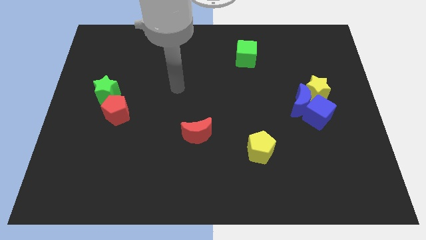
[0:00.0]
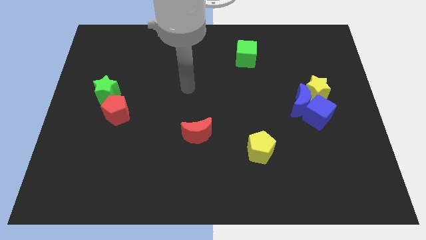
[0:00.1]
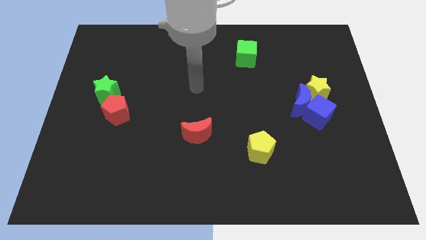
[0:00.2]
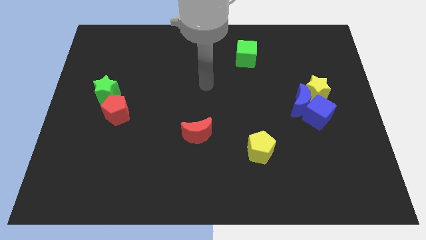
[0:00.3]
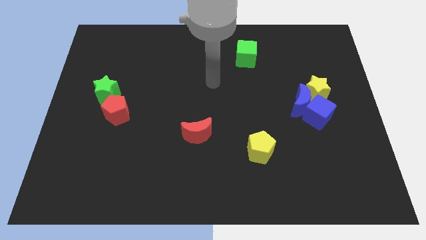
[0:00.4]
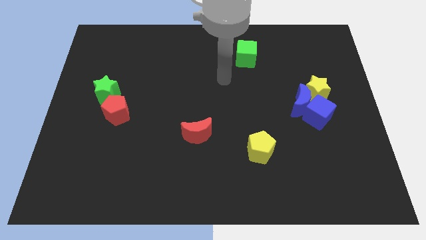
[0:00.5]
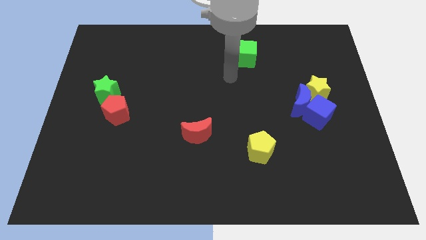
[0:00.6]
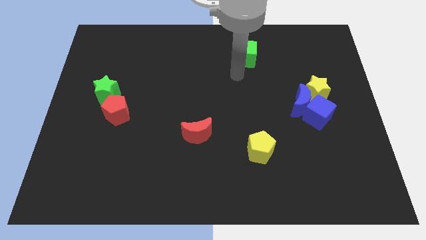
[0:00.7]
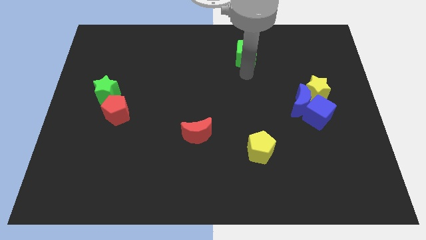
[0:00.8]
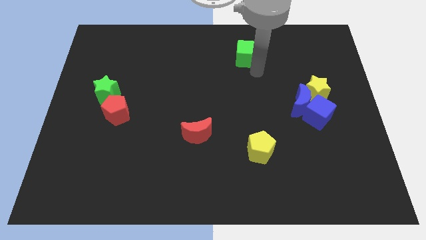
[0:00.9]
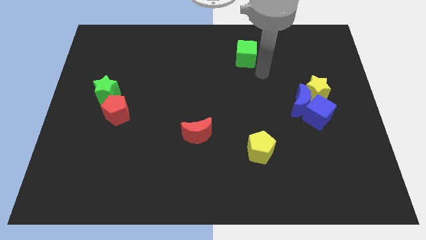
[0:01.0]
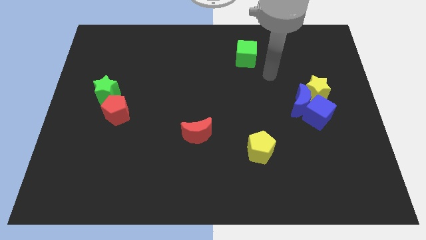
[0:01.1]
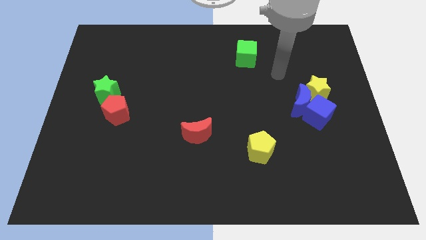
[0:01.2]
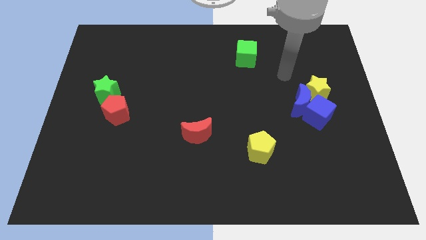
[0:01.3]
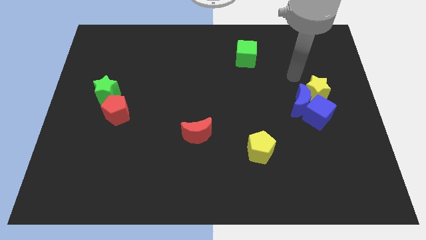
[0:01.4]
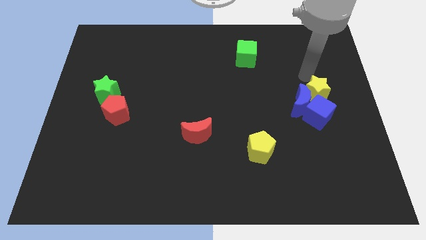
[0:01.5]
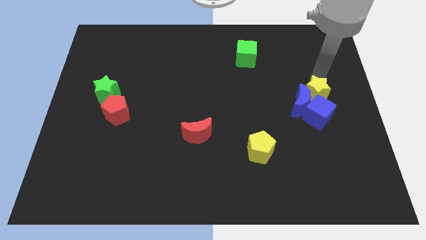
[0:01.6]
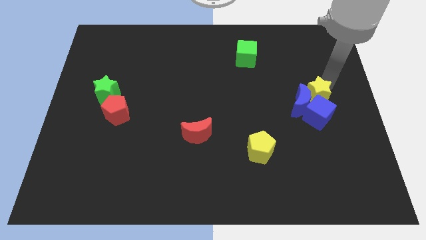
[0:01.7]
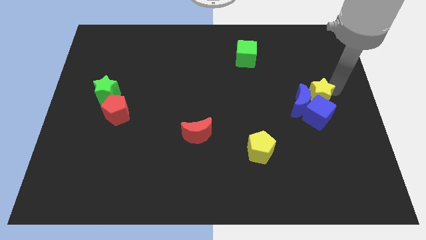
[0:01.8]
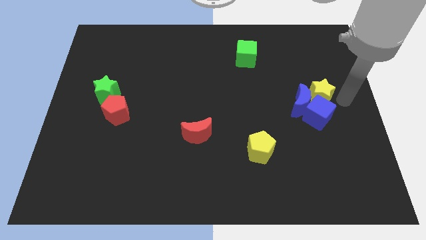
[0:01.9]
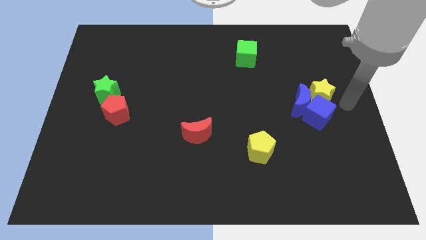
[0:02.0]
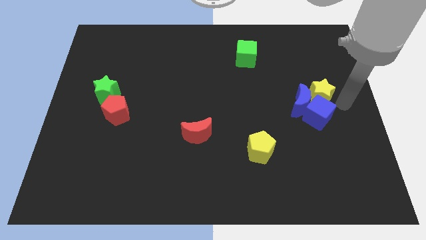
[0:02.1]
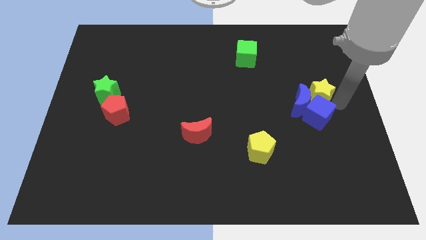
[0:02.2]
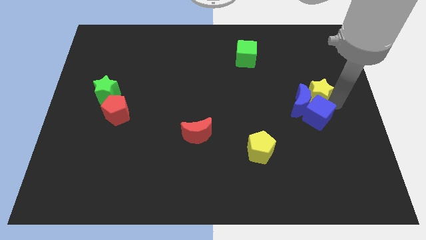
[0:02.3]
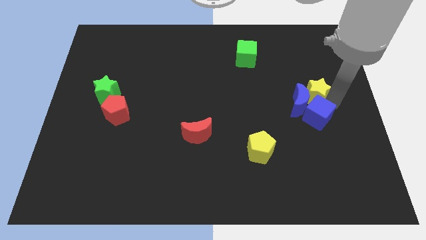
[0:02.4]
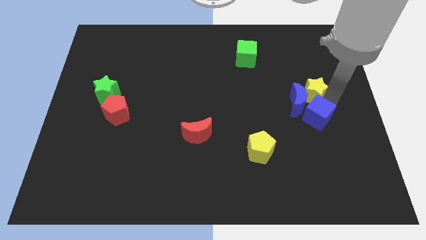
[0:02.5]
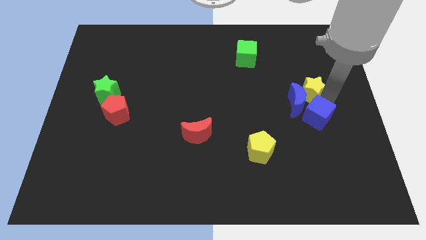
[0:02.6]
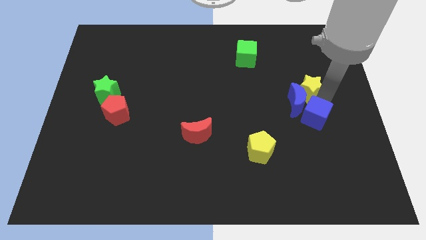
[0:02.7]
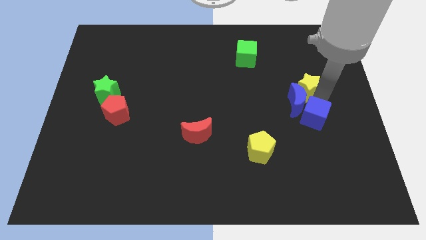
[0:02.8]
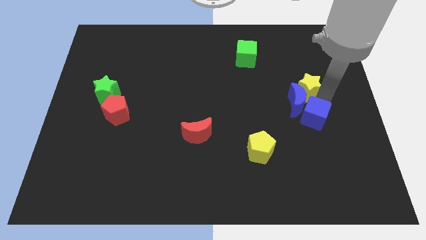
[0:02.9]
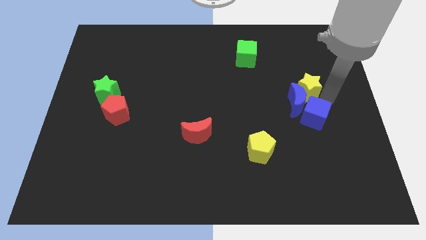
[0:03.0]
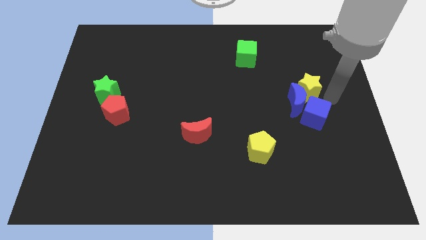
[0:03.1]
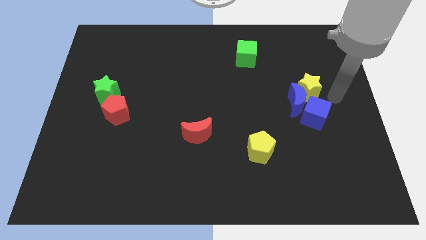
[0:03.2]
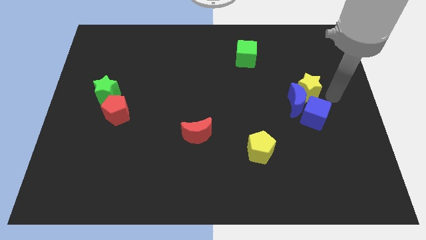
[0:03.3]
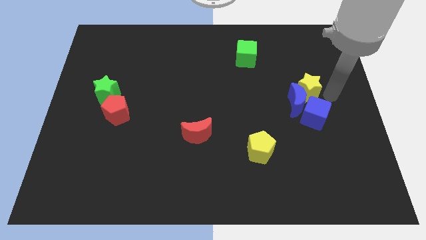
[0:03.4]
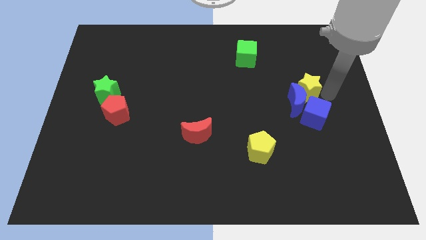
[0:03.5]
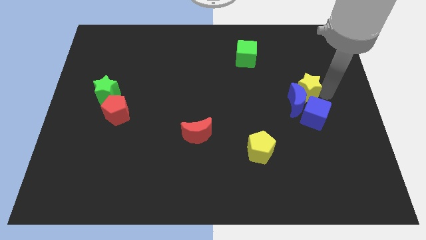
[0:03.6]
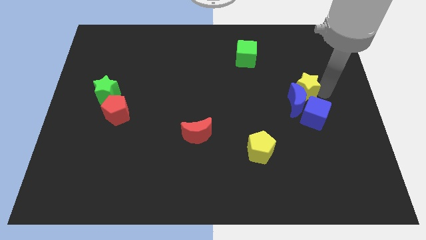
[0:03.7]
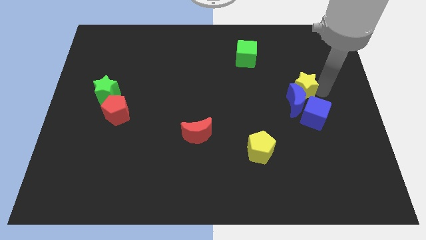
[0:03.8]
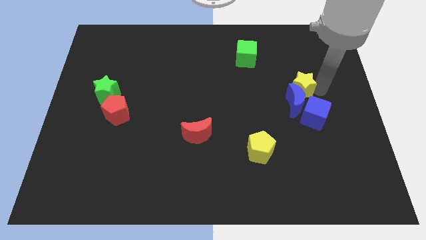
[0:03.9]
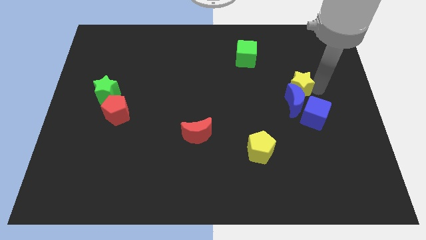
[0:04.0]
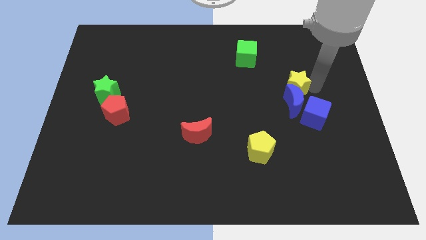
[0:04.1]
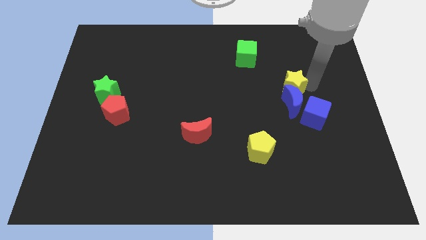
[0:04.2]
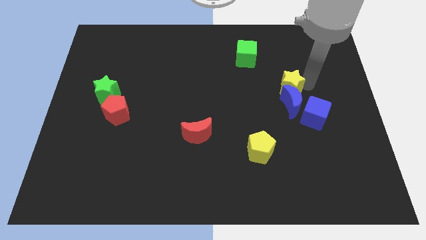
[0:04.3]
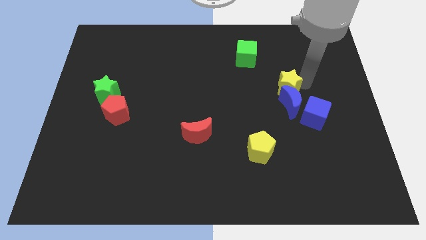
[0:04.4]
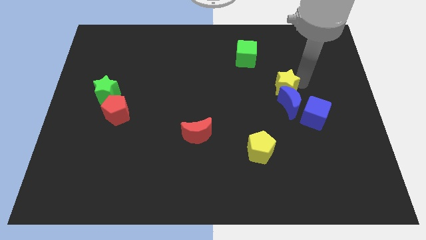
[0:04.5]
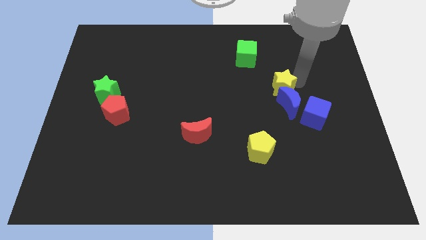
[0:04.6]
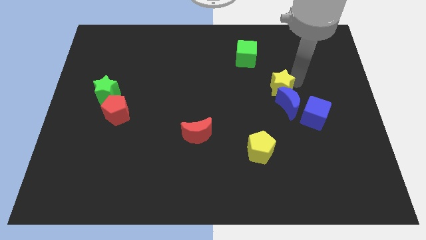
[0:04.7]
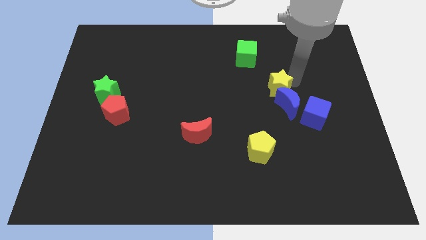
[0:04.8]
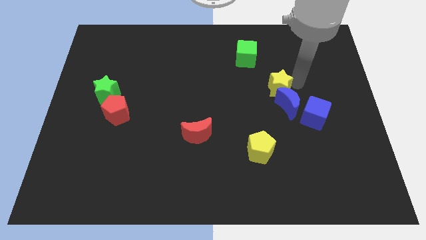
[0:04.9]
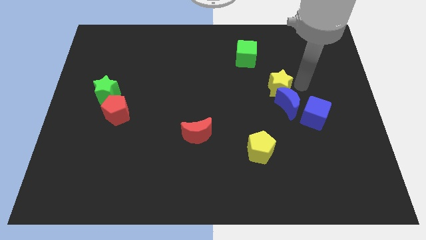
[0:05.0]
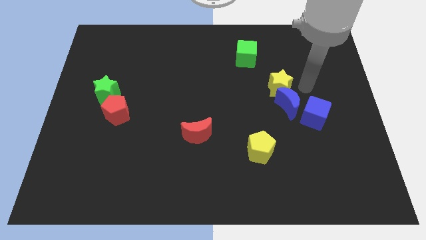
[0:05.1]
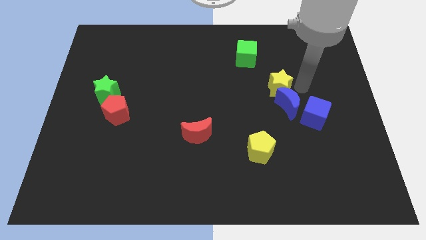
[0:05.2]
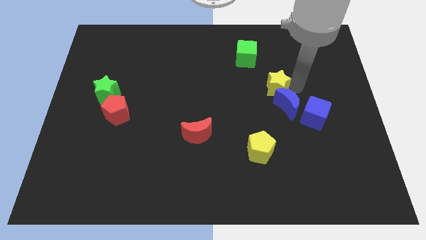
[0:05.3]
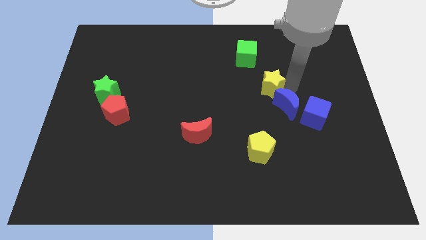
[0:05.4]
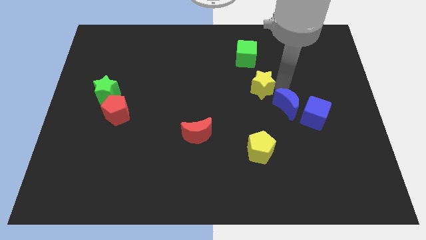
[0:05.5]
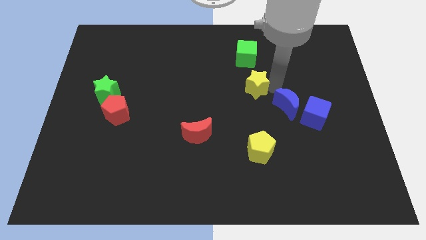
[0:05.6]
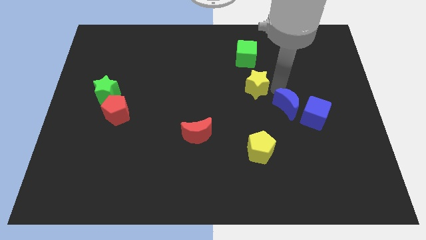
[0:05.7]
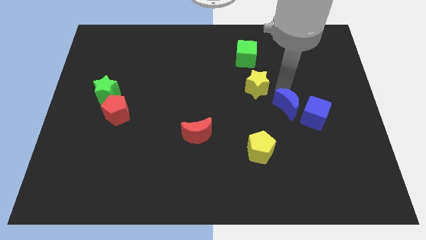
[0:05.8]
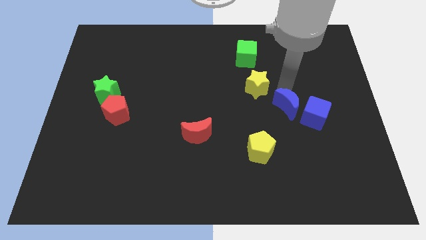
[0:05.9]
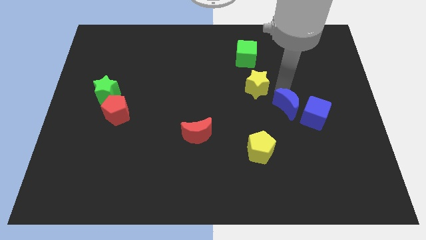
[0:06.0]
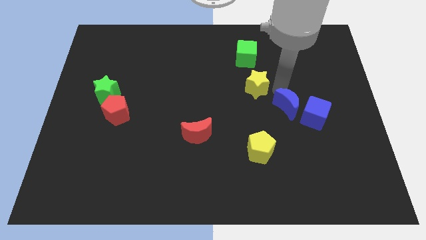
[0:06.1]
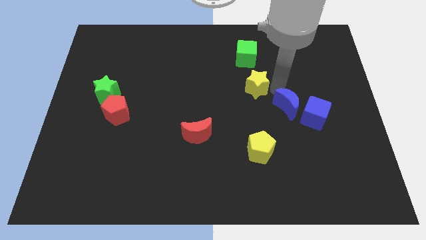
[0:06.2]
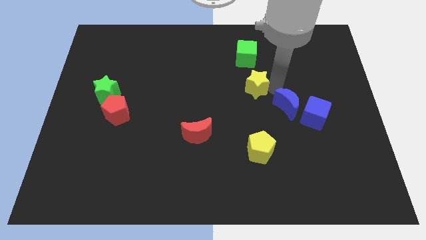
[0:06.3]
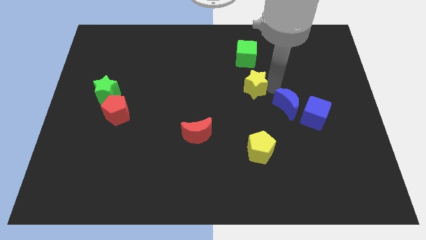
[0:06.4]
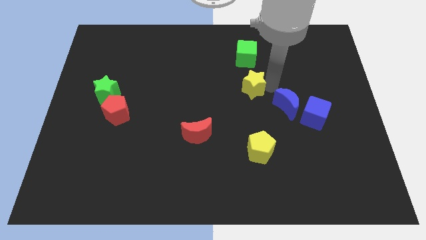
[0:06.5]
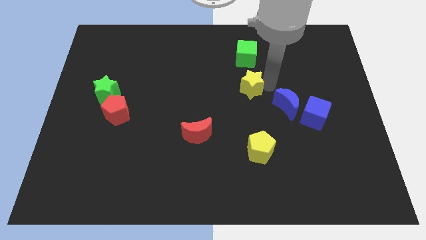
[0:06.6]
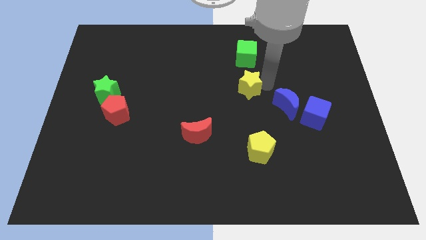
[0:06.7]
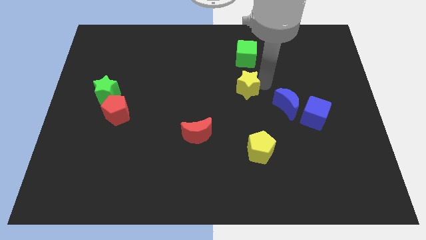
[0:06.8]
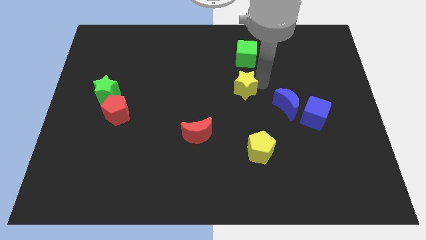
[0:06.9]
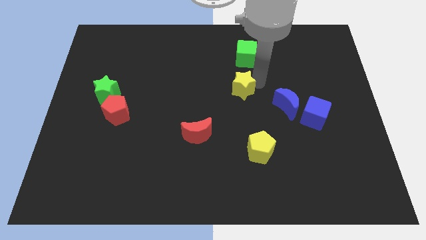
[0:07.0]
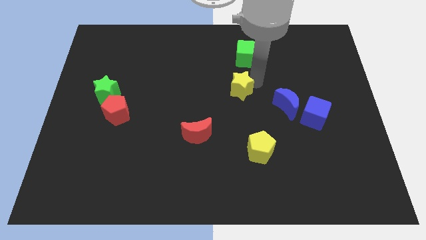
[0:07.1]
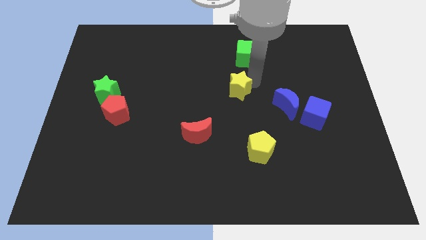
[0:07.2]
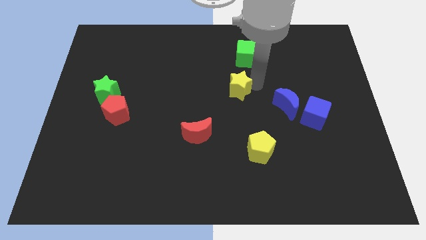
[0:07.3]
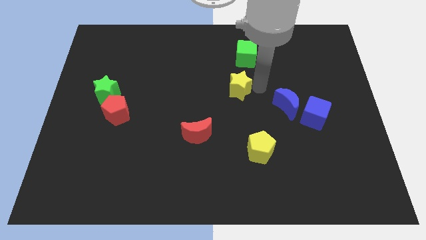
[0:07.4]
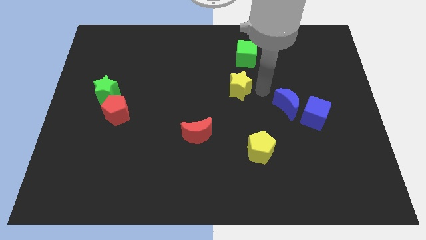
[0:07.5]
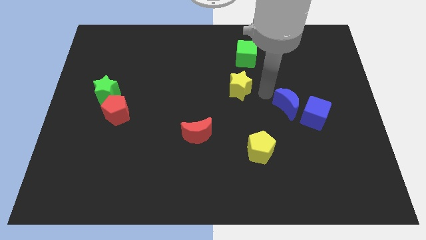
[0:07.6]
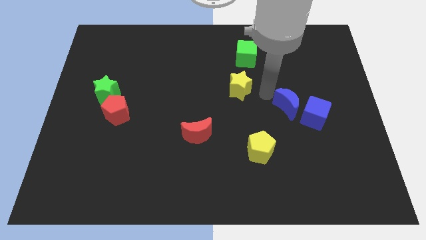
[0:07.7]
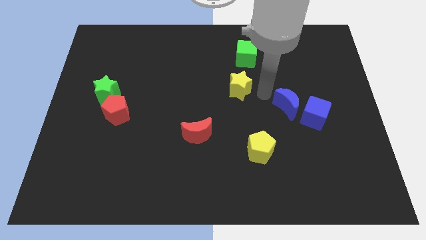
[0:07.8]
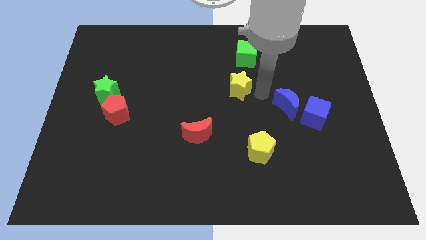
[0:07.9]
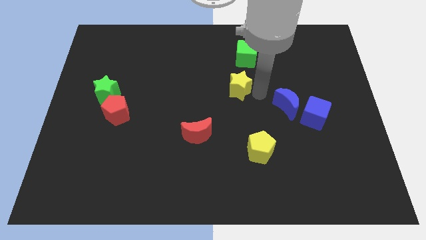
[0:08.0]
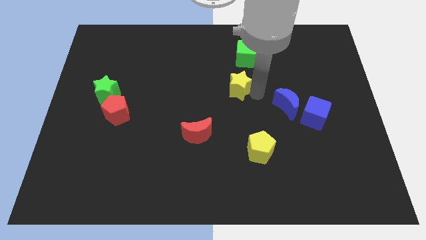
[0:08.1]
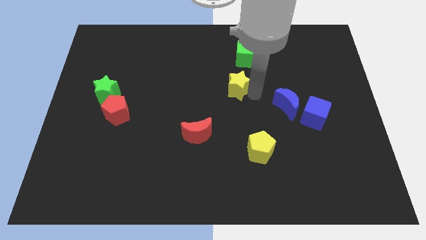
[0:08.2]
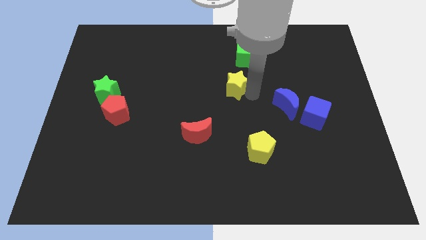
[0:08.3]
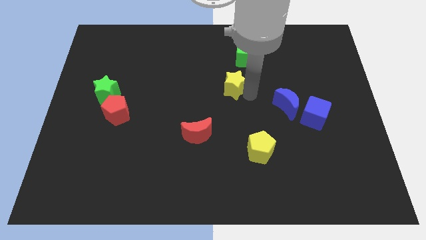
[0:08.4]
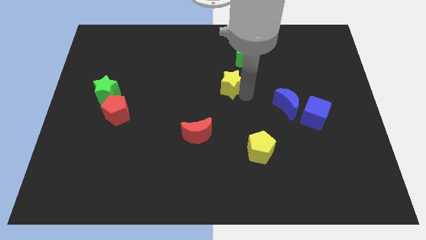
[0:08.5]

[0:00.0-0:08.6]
slide the yellow star to the left
